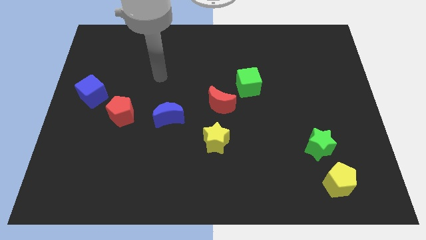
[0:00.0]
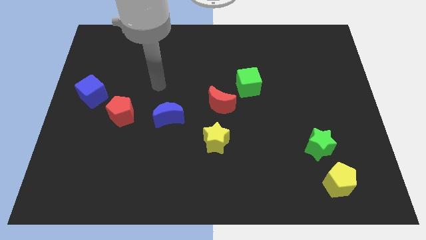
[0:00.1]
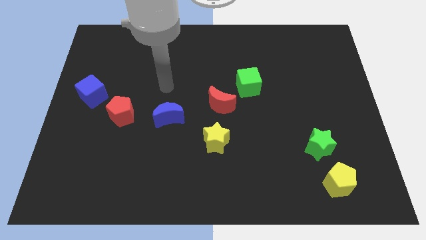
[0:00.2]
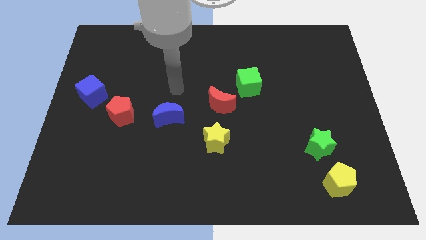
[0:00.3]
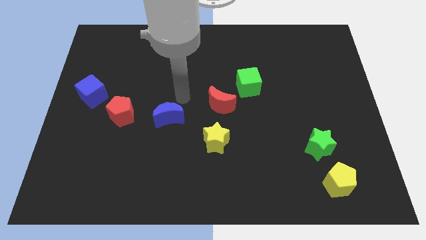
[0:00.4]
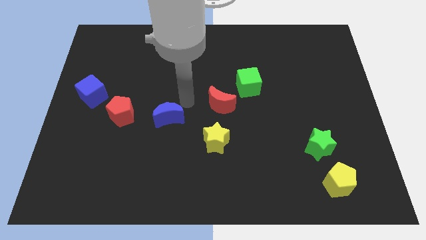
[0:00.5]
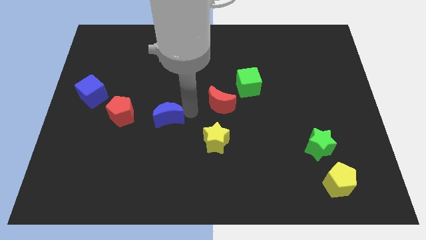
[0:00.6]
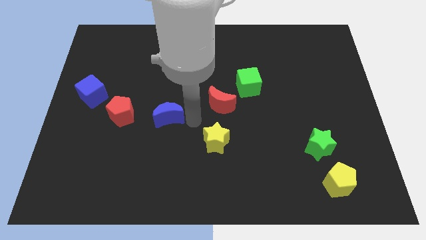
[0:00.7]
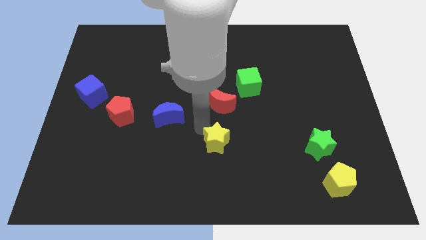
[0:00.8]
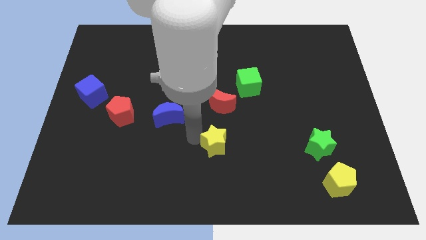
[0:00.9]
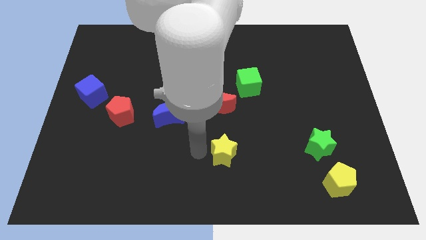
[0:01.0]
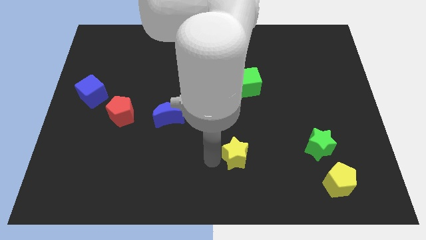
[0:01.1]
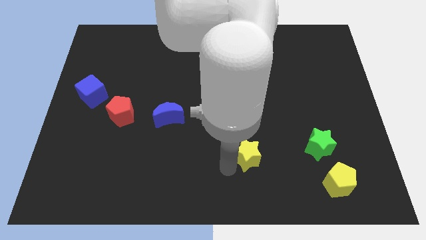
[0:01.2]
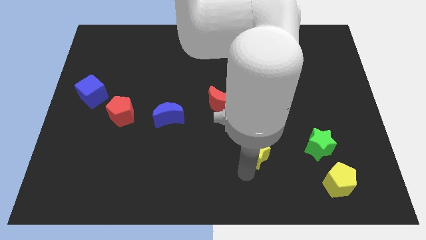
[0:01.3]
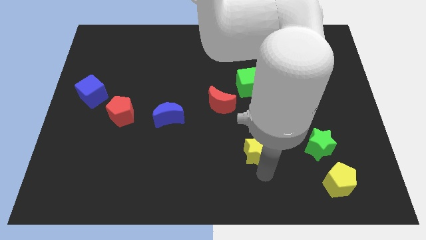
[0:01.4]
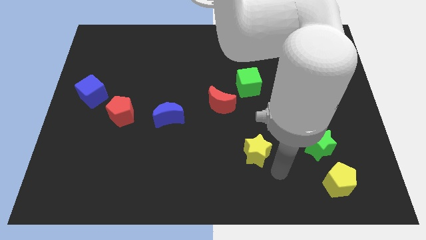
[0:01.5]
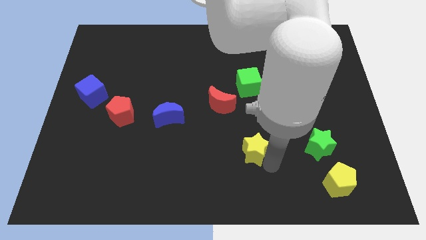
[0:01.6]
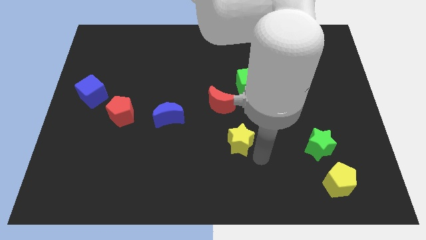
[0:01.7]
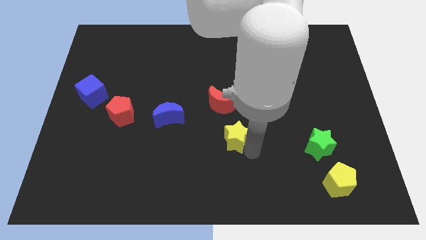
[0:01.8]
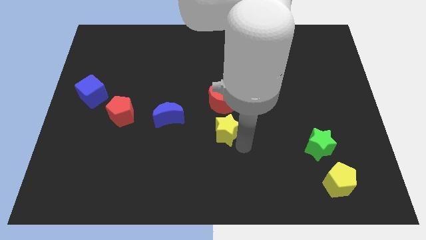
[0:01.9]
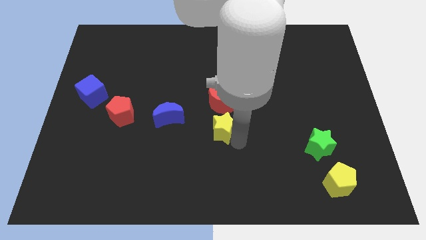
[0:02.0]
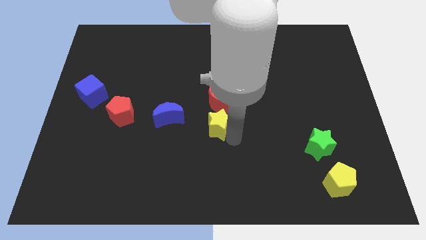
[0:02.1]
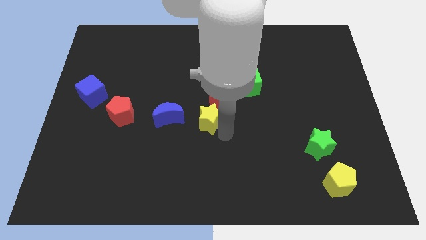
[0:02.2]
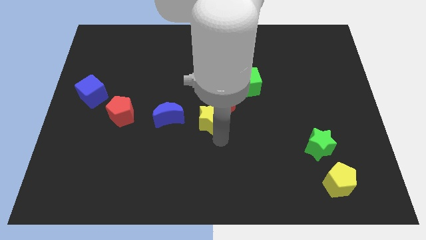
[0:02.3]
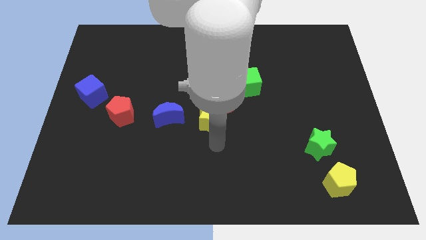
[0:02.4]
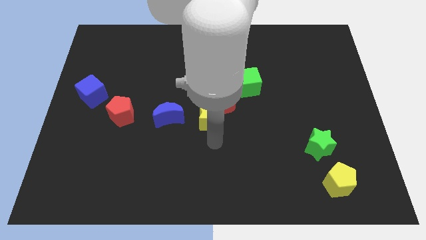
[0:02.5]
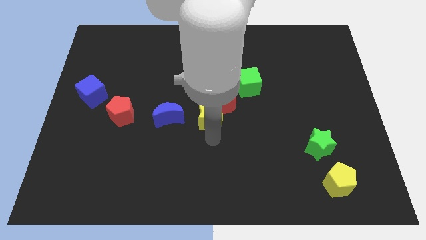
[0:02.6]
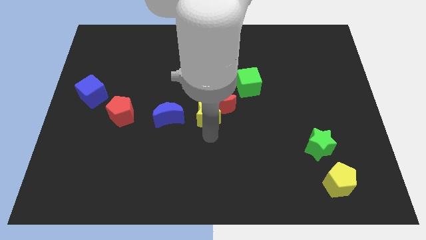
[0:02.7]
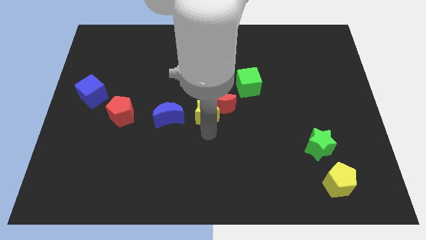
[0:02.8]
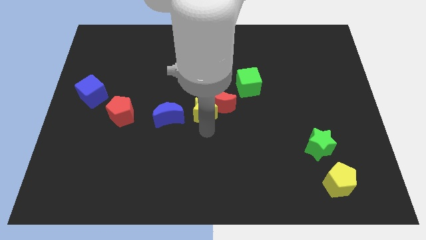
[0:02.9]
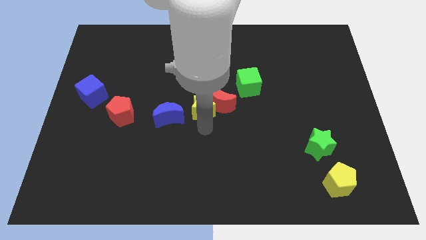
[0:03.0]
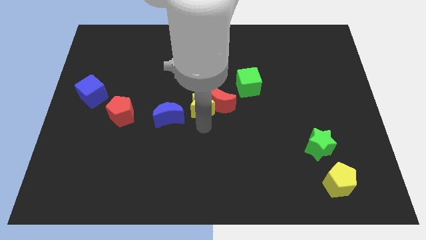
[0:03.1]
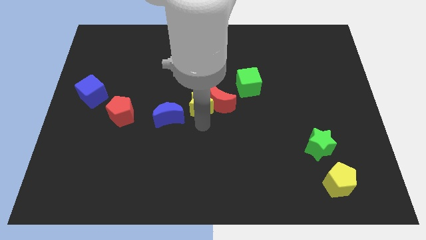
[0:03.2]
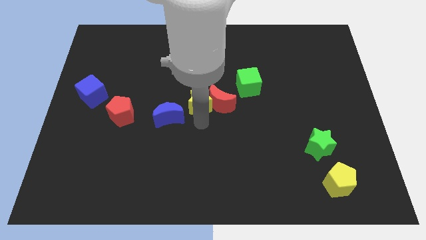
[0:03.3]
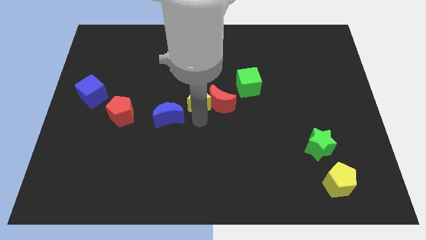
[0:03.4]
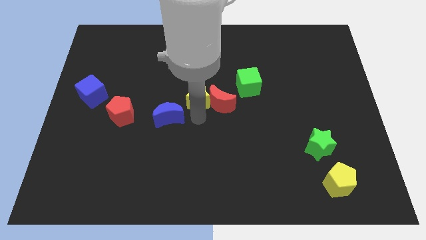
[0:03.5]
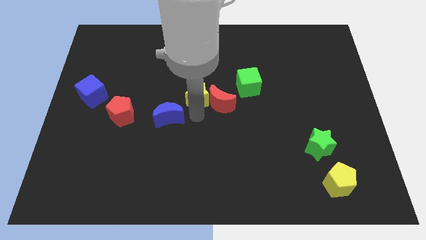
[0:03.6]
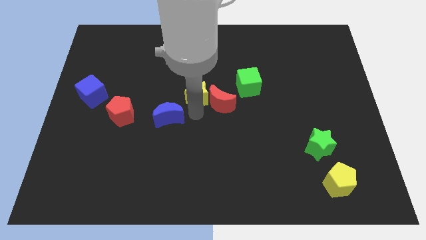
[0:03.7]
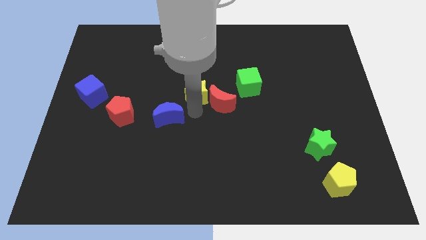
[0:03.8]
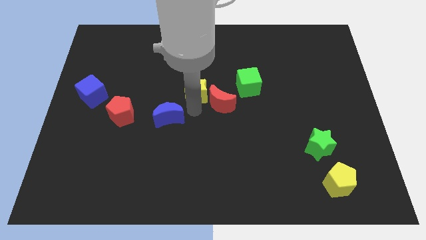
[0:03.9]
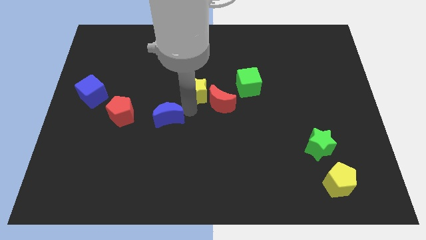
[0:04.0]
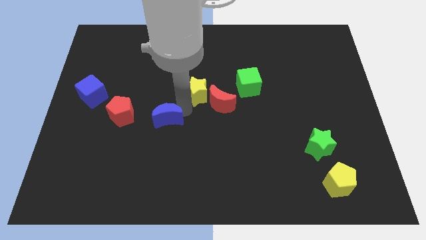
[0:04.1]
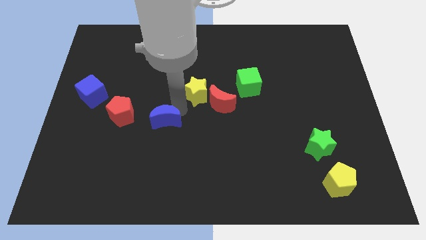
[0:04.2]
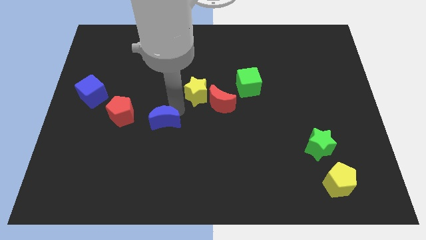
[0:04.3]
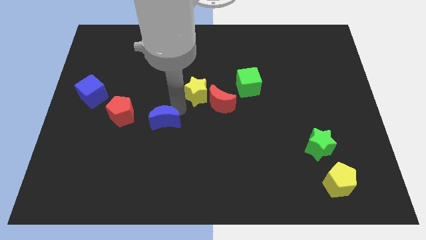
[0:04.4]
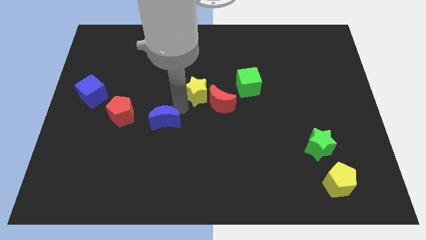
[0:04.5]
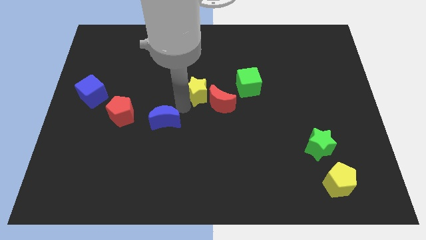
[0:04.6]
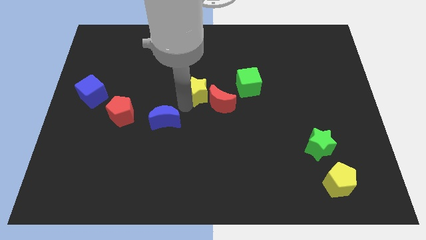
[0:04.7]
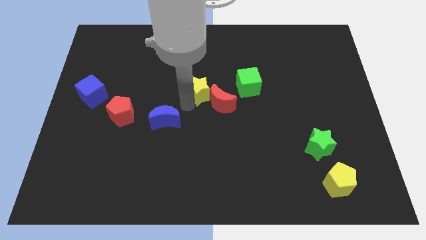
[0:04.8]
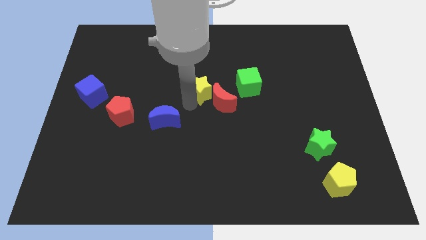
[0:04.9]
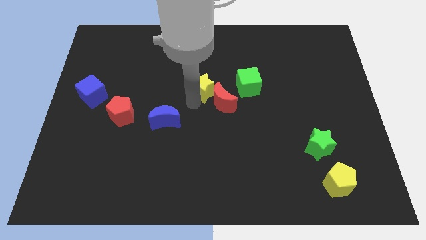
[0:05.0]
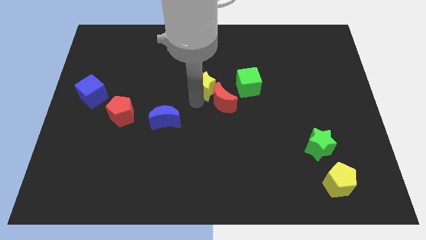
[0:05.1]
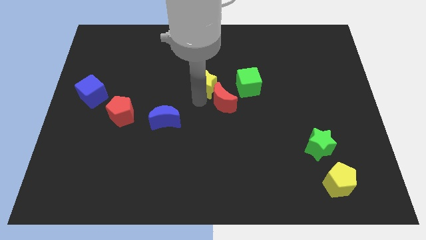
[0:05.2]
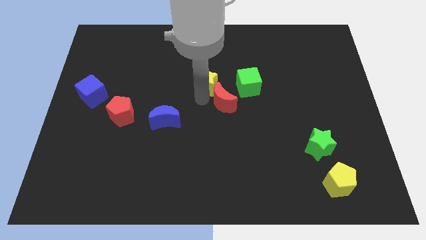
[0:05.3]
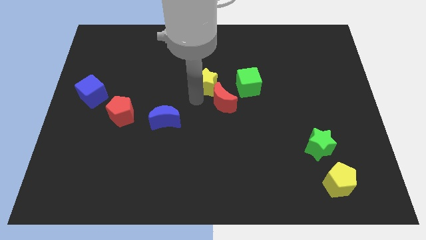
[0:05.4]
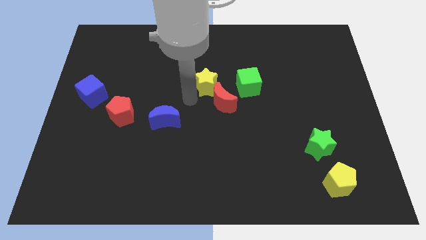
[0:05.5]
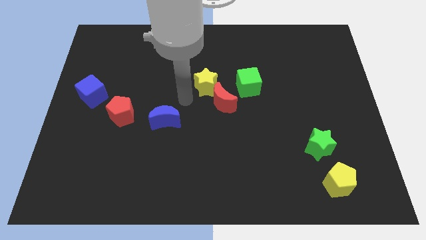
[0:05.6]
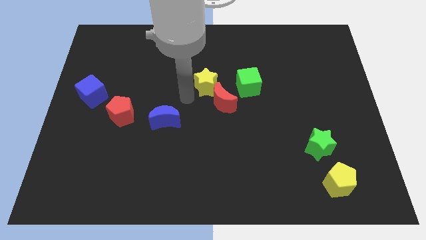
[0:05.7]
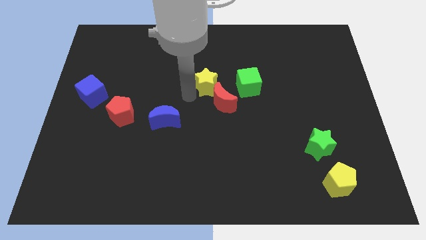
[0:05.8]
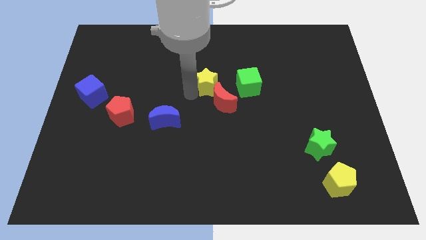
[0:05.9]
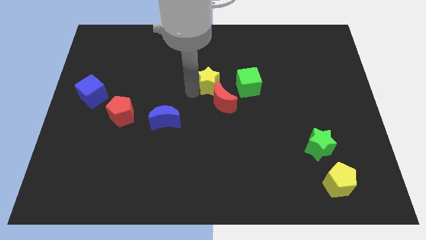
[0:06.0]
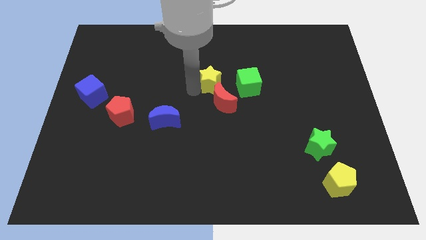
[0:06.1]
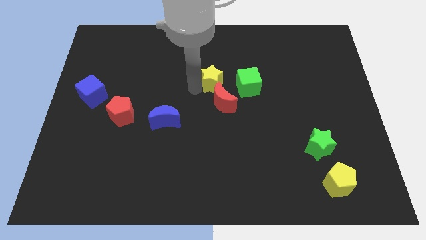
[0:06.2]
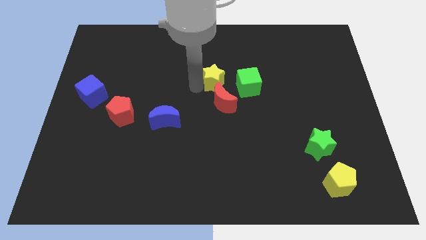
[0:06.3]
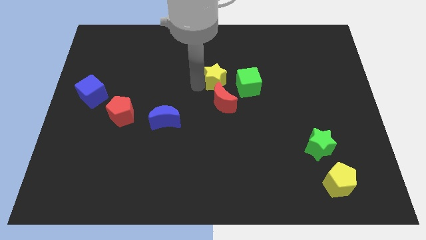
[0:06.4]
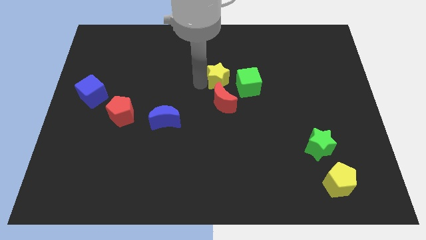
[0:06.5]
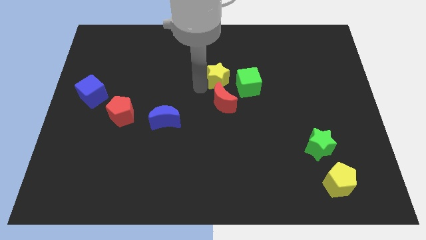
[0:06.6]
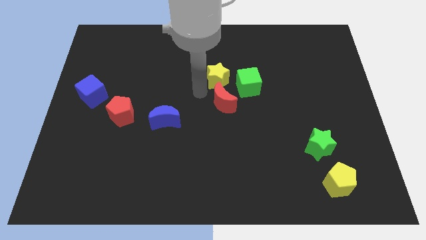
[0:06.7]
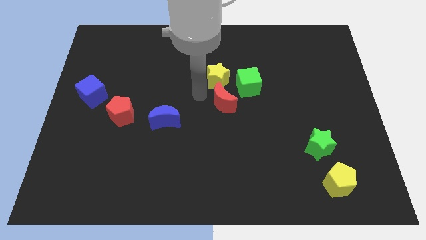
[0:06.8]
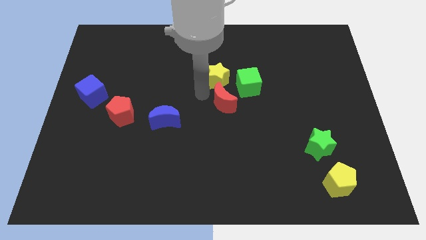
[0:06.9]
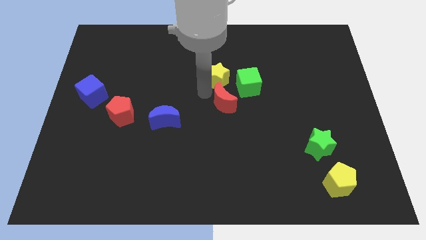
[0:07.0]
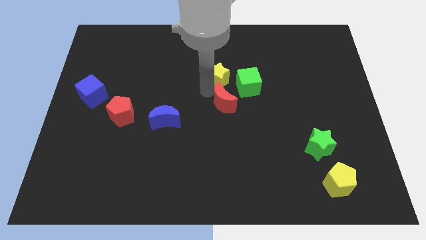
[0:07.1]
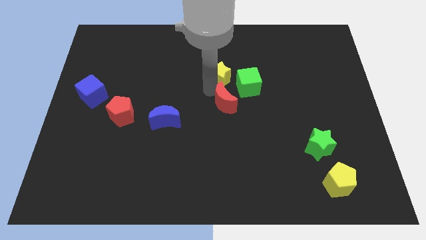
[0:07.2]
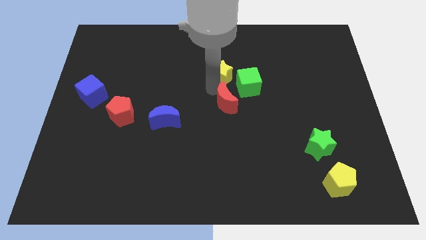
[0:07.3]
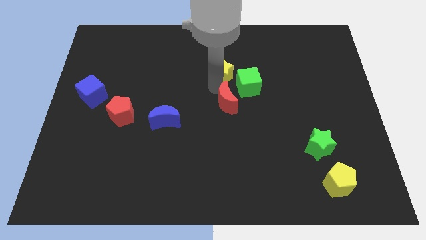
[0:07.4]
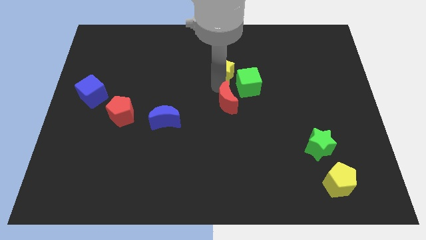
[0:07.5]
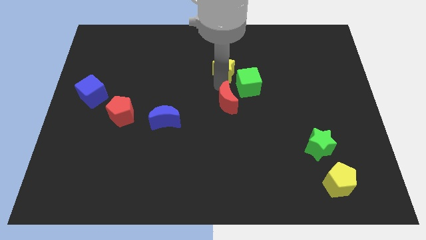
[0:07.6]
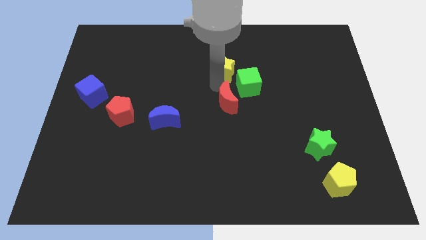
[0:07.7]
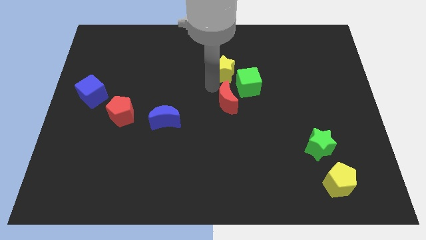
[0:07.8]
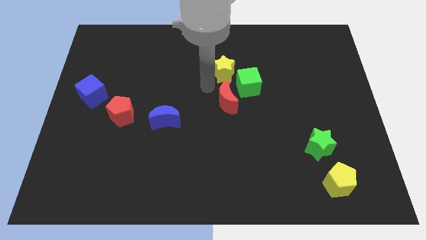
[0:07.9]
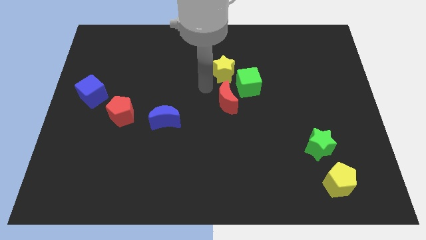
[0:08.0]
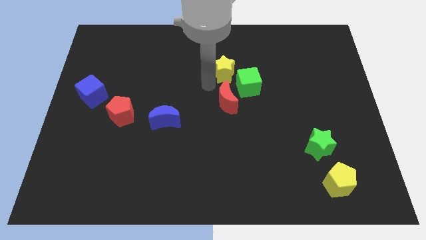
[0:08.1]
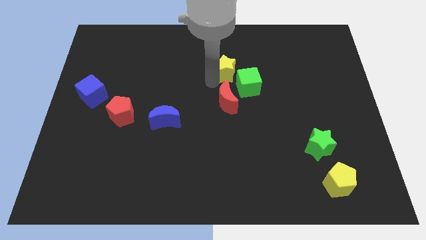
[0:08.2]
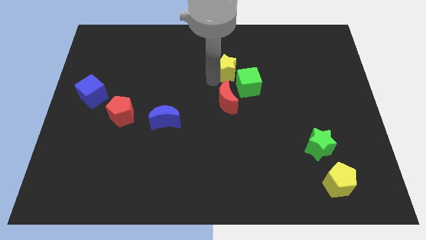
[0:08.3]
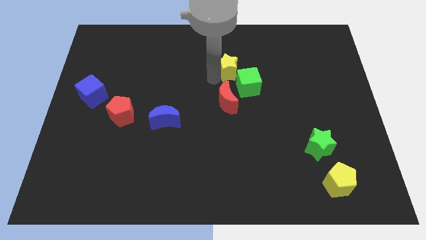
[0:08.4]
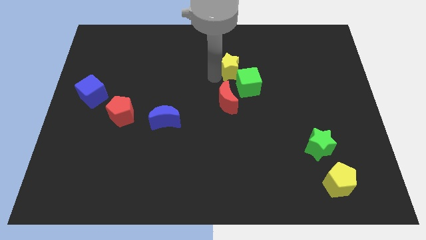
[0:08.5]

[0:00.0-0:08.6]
push the yellow star to the top side of the green cube
